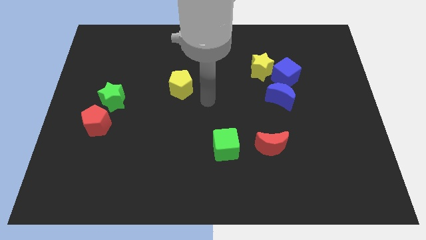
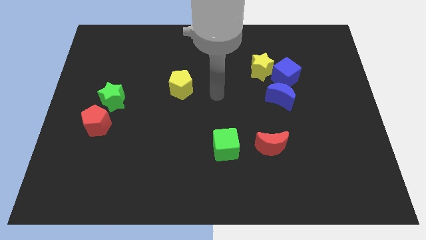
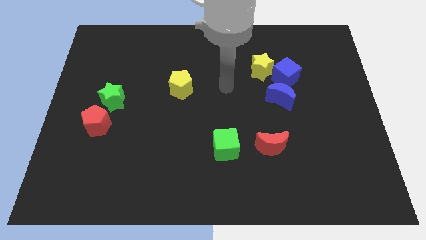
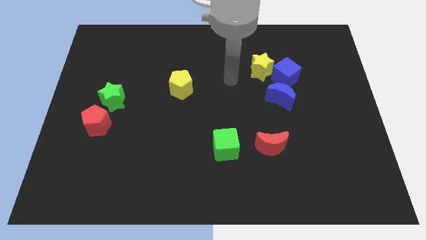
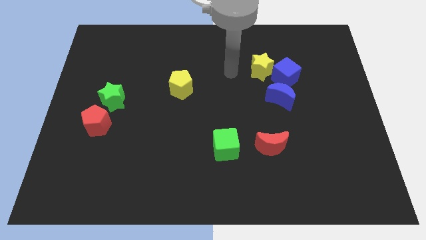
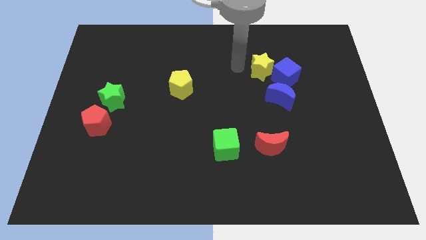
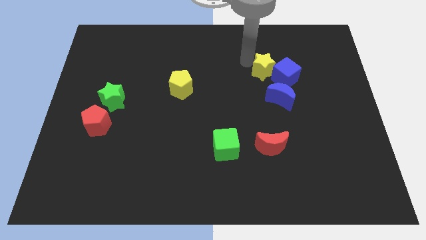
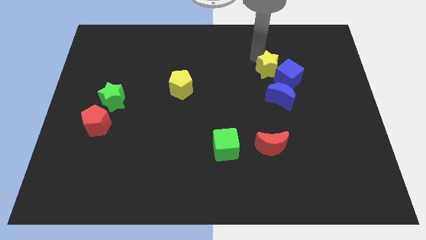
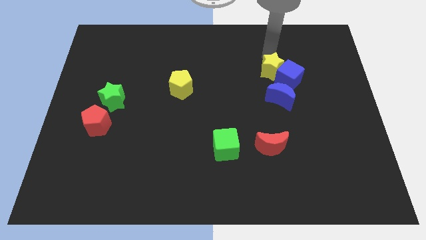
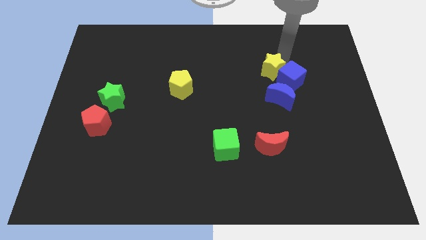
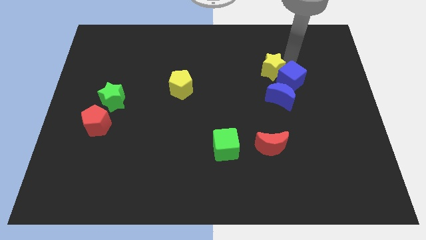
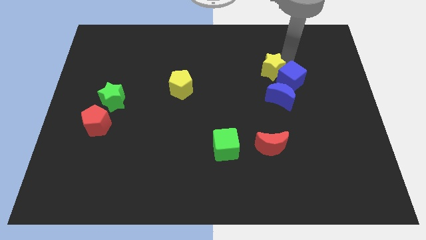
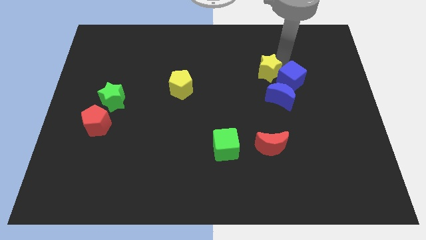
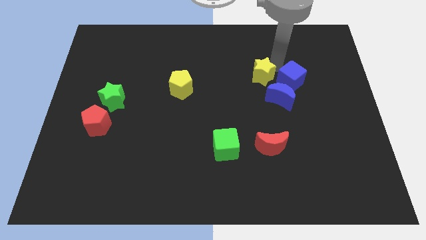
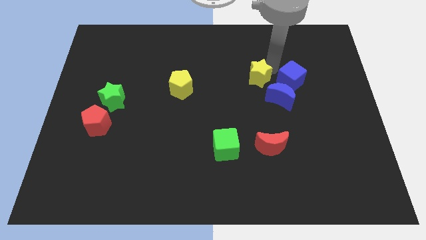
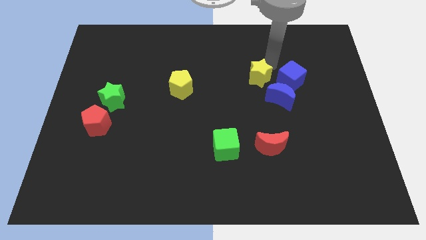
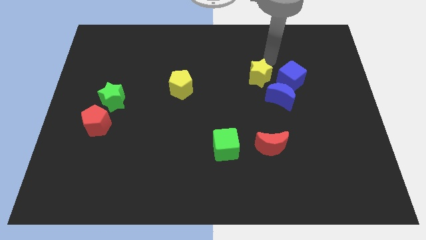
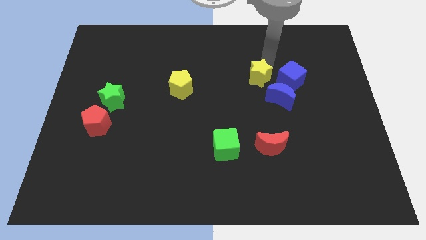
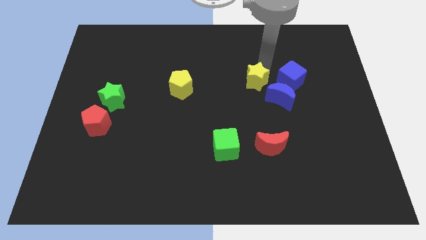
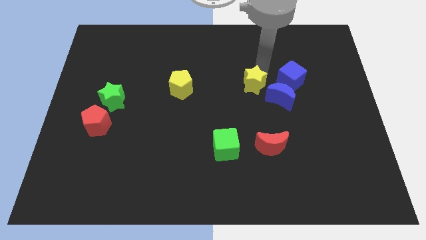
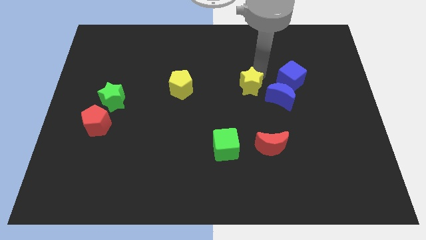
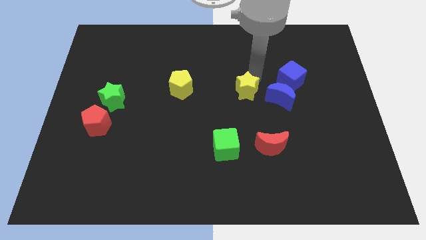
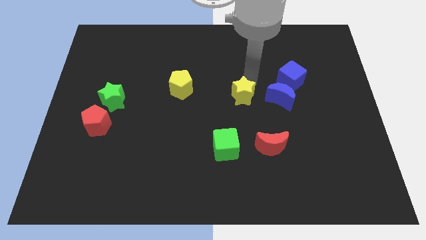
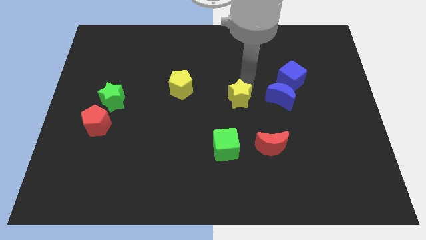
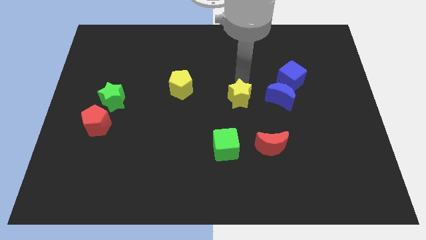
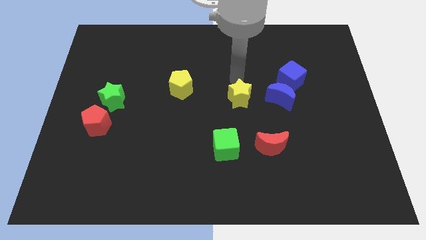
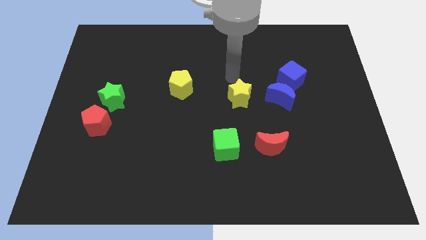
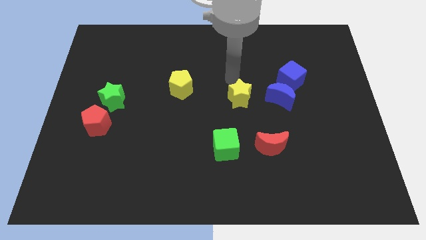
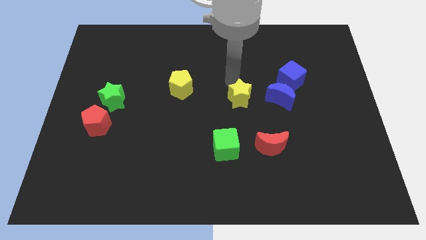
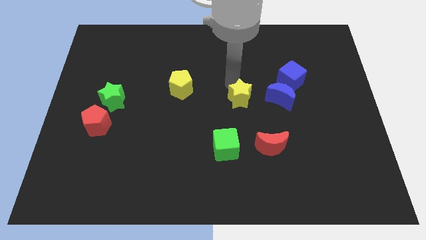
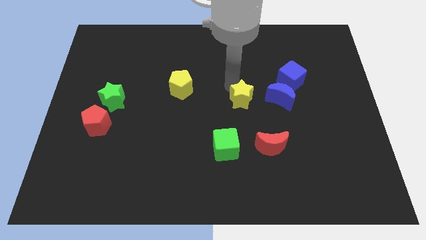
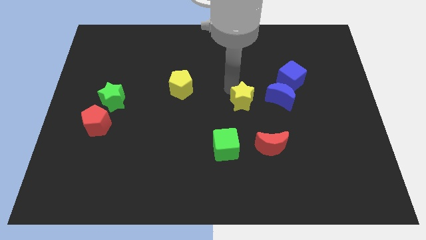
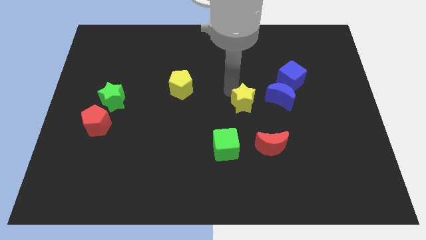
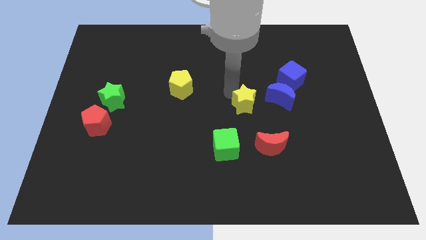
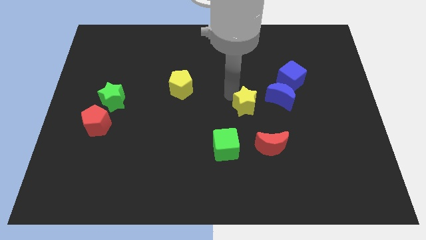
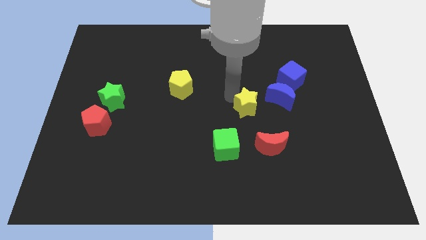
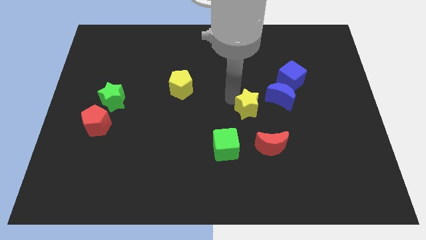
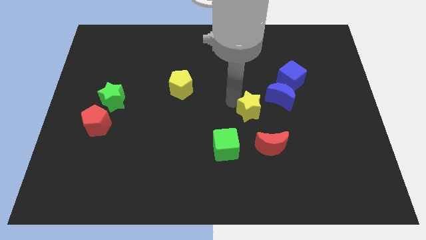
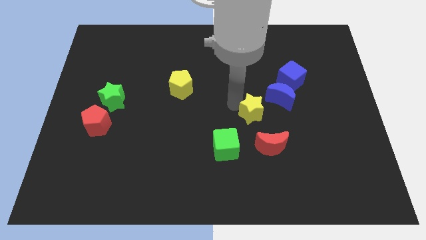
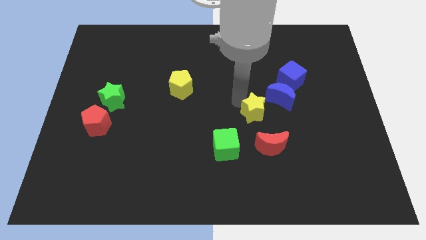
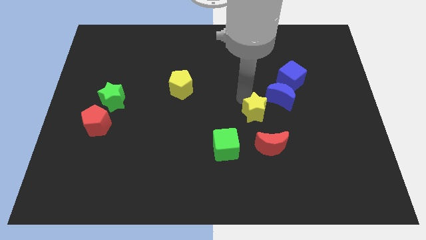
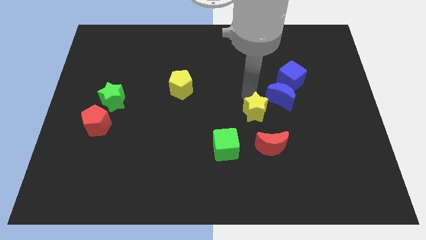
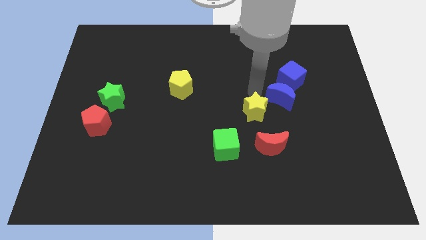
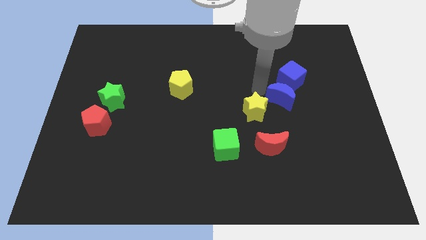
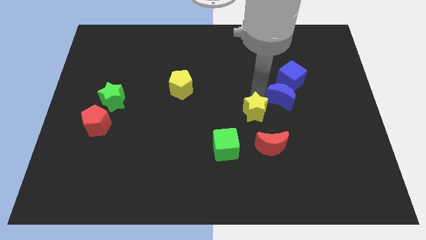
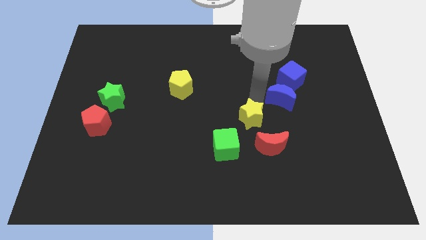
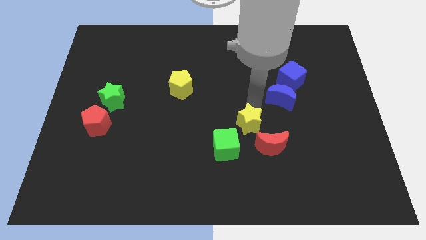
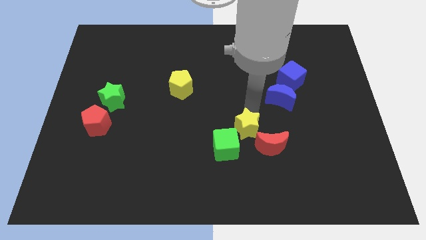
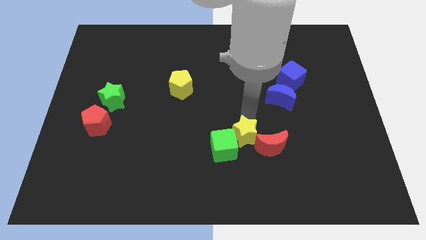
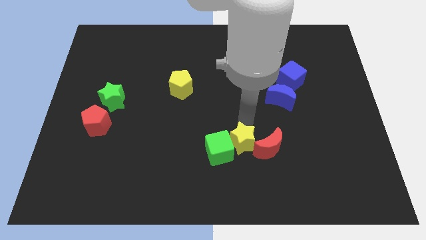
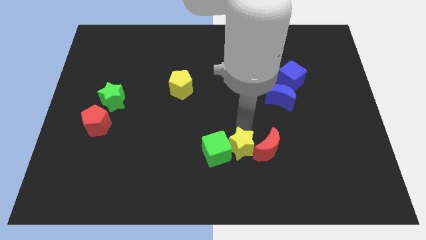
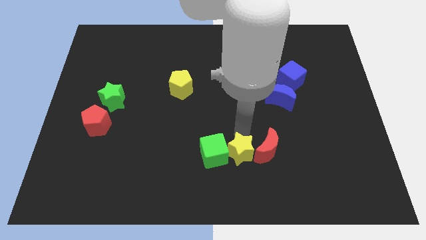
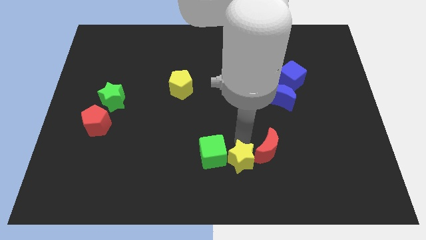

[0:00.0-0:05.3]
push the yellow star to the bottom side
